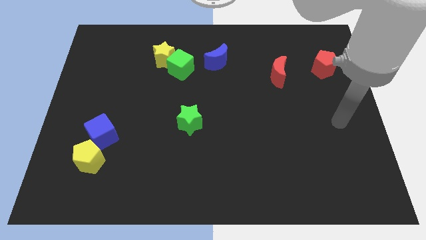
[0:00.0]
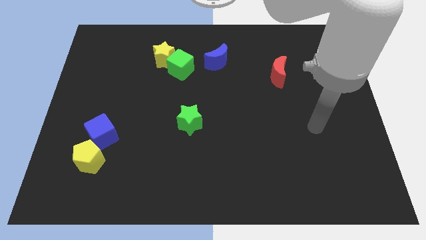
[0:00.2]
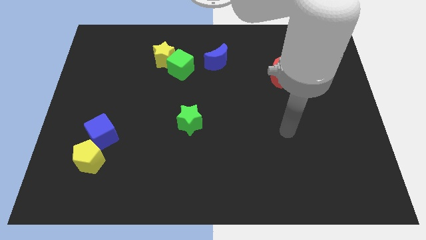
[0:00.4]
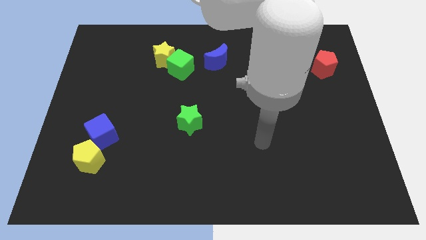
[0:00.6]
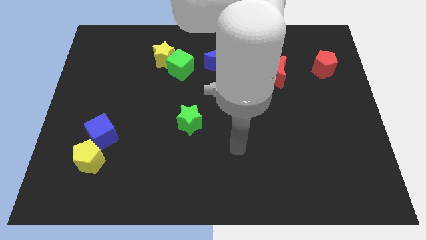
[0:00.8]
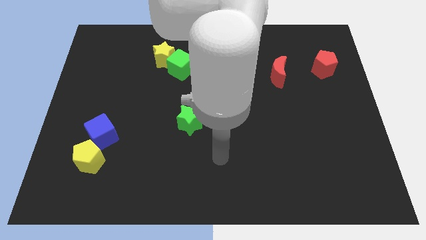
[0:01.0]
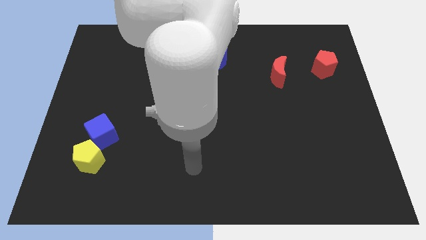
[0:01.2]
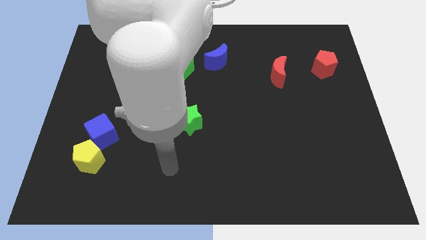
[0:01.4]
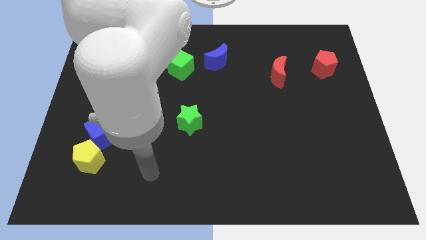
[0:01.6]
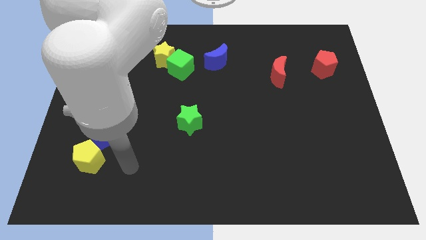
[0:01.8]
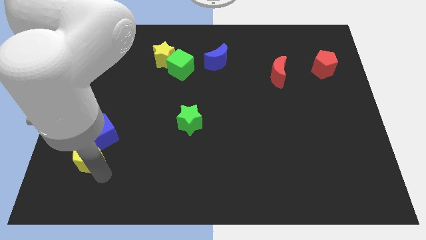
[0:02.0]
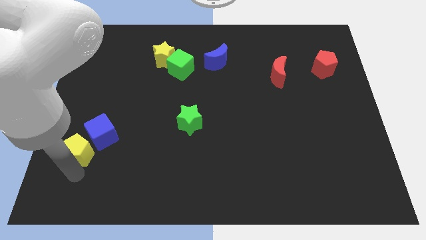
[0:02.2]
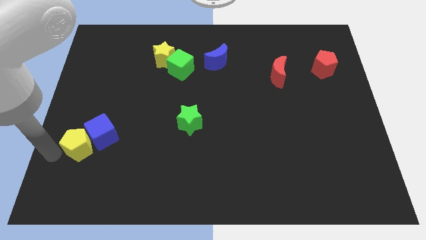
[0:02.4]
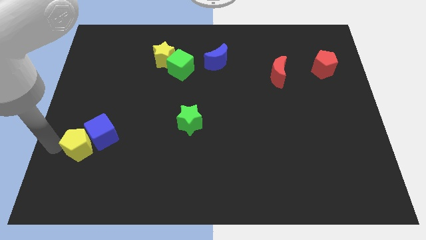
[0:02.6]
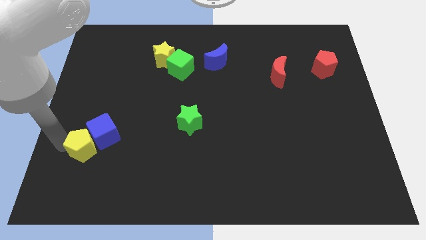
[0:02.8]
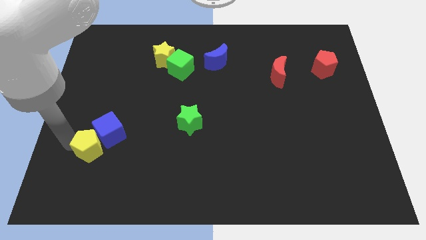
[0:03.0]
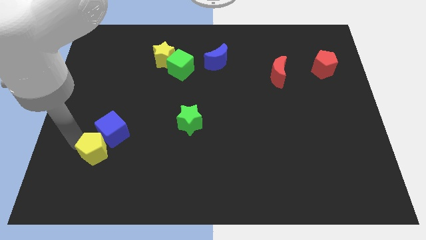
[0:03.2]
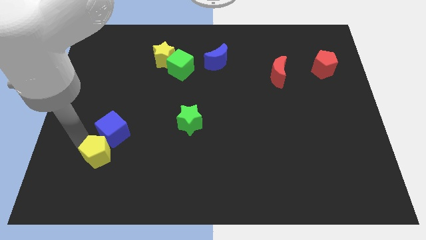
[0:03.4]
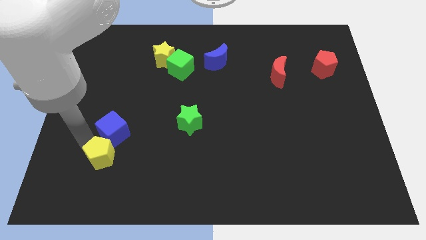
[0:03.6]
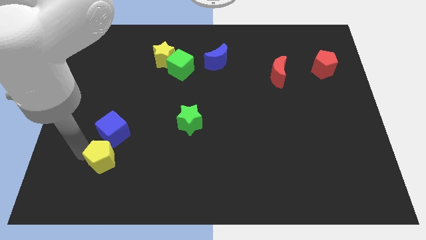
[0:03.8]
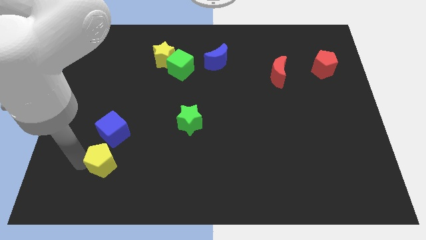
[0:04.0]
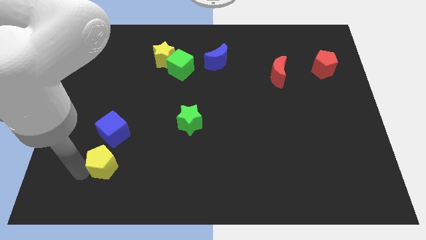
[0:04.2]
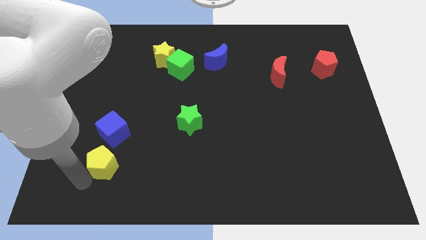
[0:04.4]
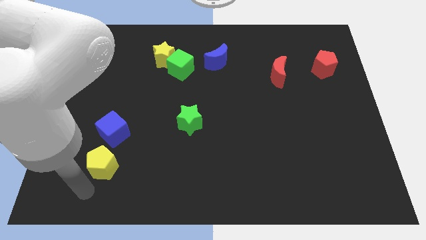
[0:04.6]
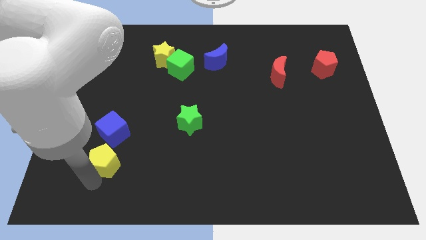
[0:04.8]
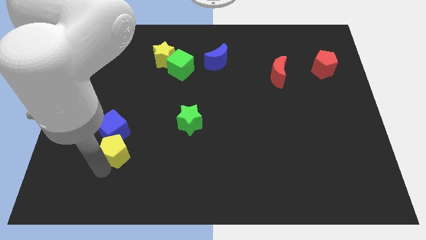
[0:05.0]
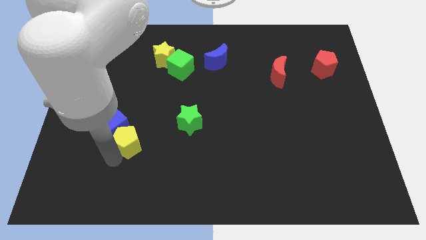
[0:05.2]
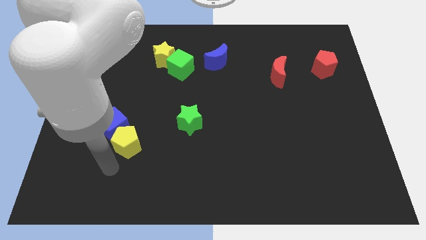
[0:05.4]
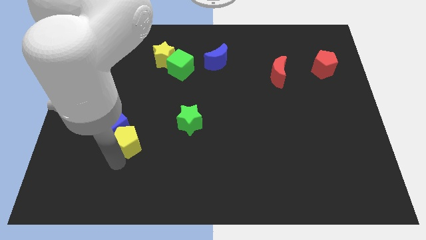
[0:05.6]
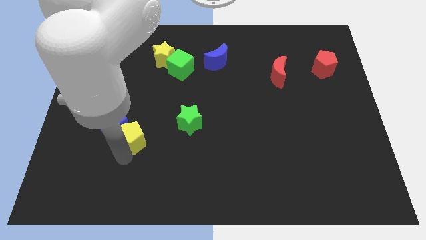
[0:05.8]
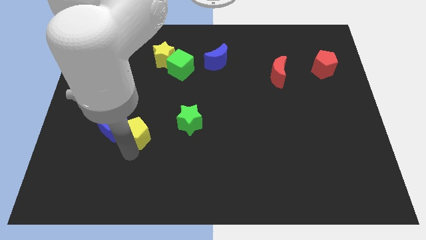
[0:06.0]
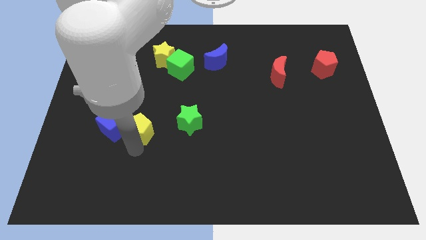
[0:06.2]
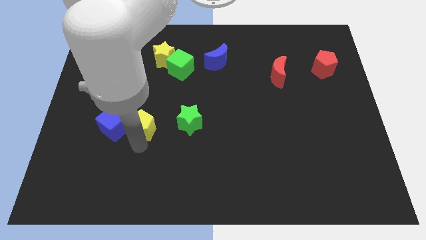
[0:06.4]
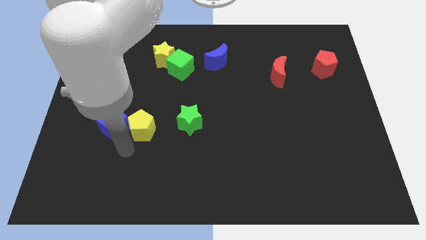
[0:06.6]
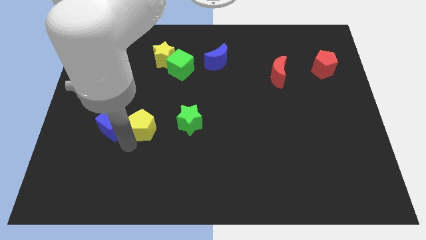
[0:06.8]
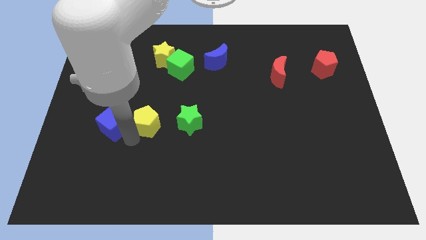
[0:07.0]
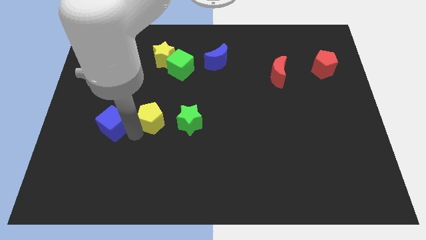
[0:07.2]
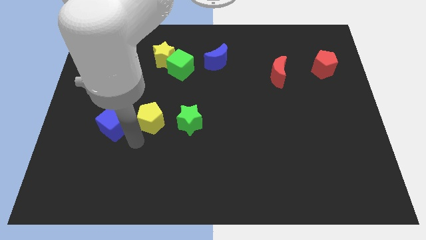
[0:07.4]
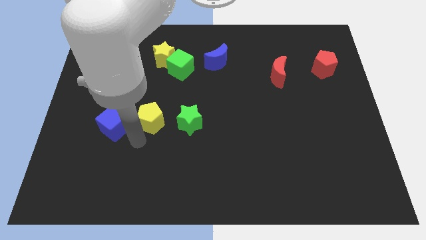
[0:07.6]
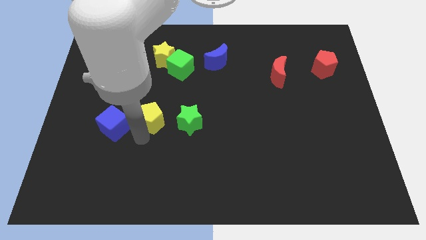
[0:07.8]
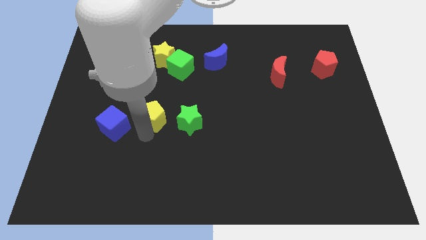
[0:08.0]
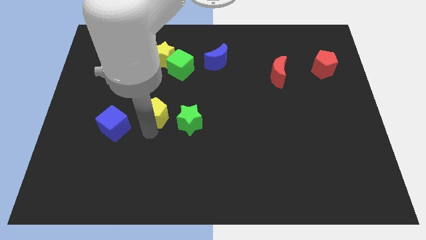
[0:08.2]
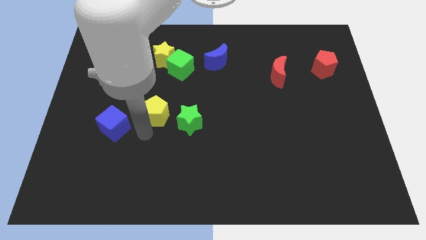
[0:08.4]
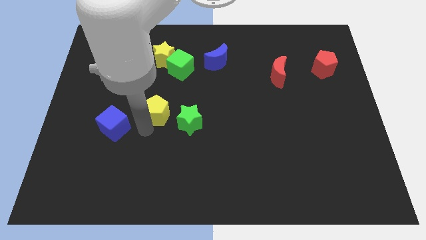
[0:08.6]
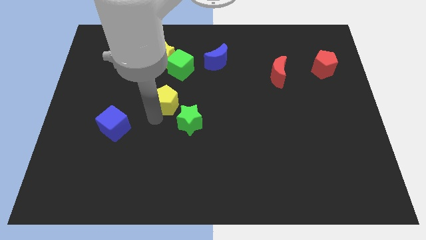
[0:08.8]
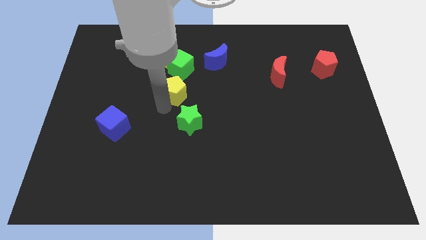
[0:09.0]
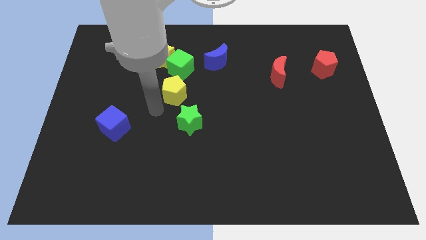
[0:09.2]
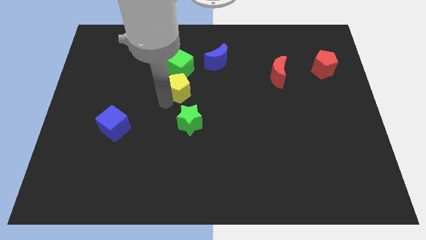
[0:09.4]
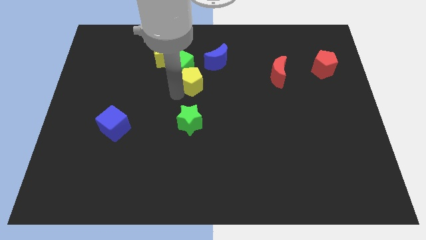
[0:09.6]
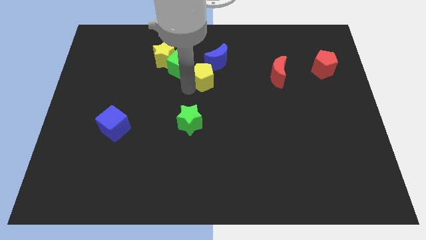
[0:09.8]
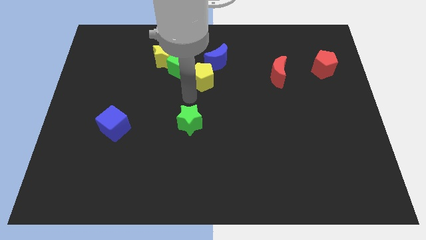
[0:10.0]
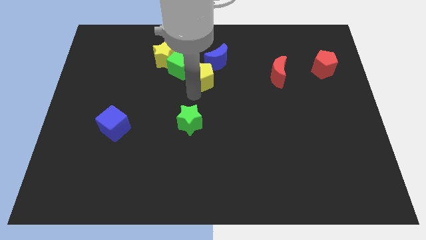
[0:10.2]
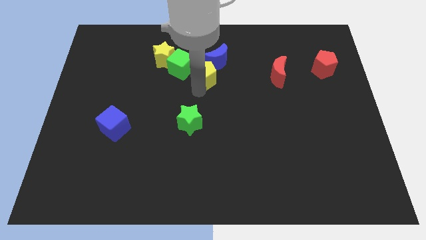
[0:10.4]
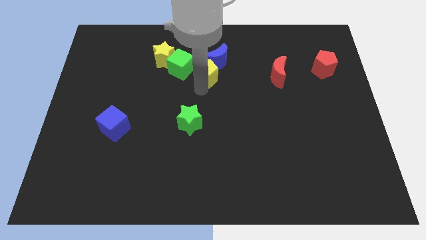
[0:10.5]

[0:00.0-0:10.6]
push the yellow pentagon next to the blue moon

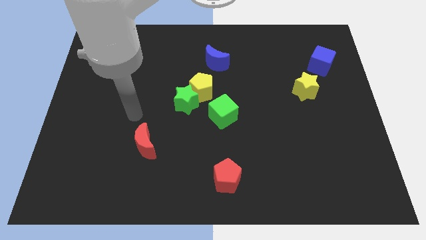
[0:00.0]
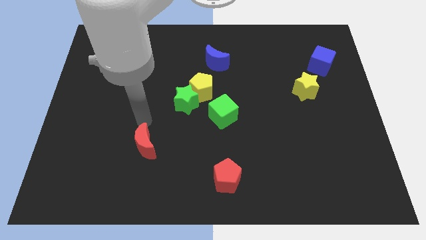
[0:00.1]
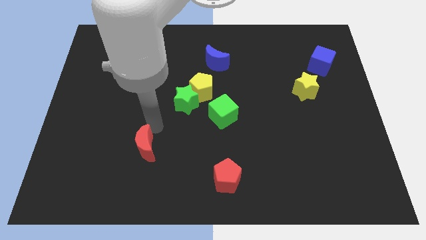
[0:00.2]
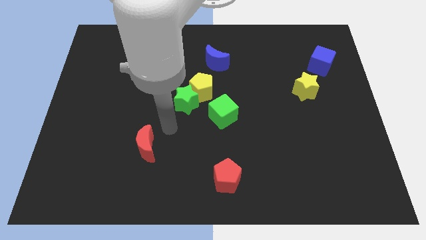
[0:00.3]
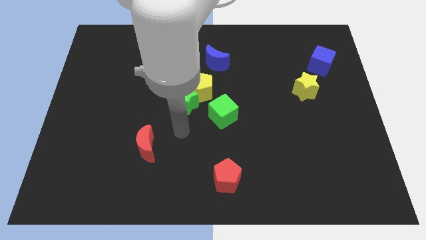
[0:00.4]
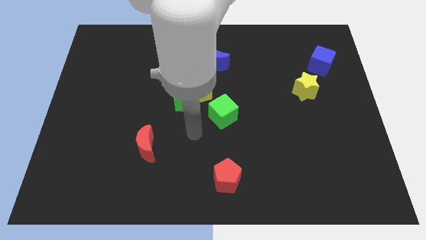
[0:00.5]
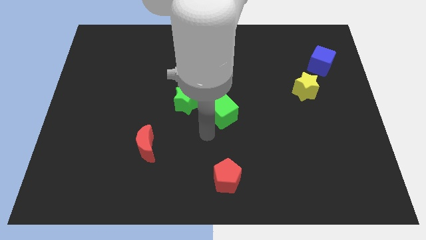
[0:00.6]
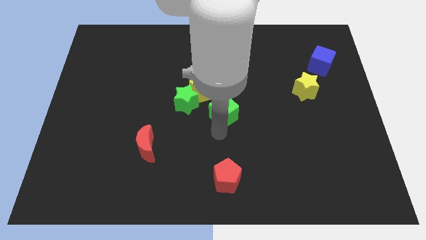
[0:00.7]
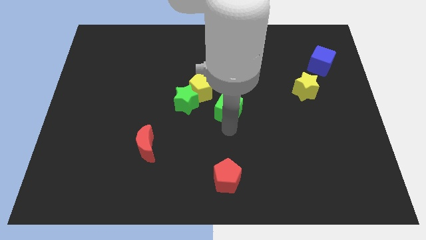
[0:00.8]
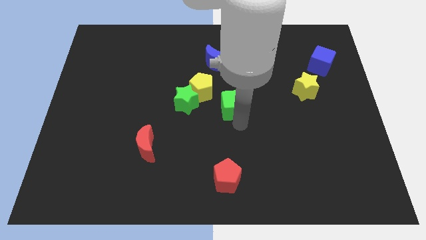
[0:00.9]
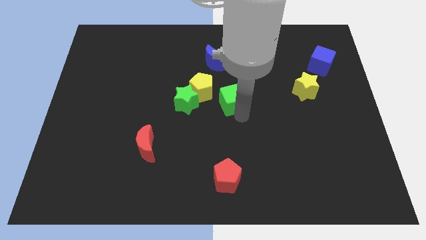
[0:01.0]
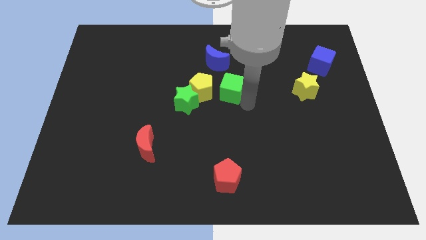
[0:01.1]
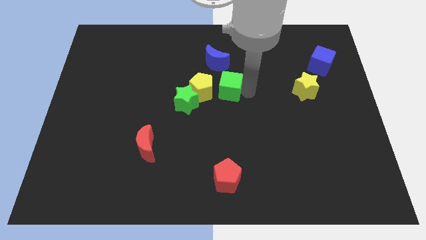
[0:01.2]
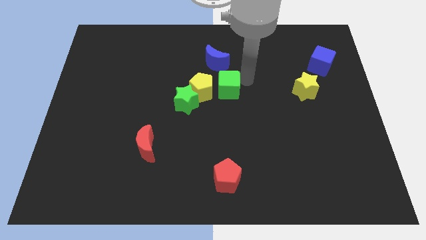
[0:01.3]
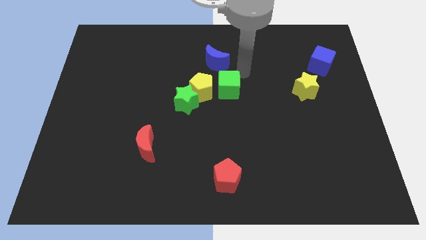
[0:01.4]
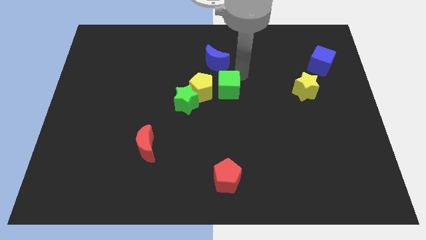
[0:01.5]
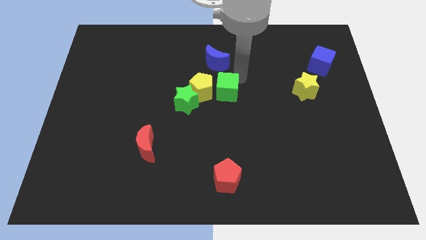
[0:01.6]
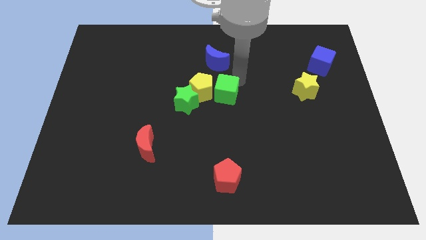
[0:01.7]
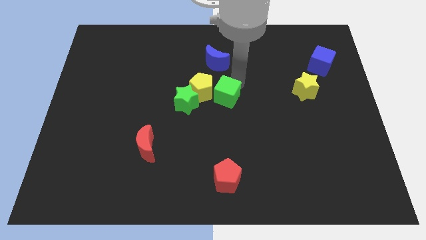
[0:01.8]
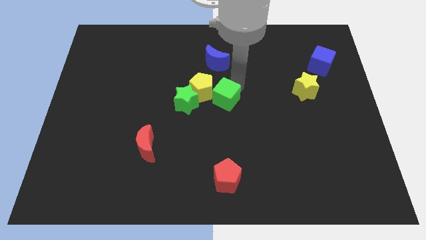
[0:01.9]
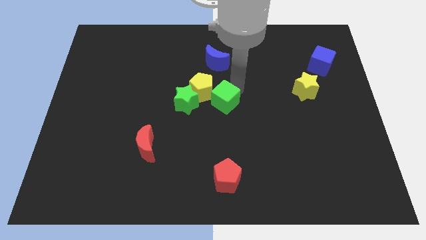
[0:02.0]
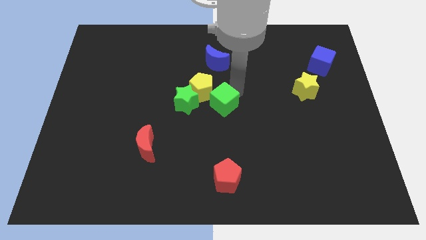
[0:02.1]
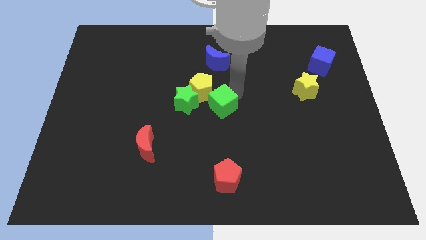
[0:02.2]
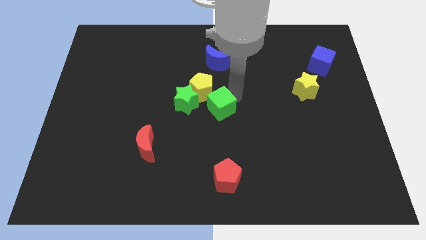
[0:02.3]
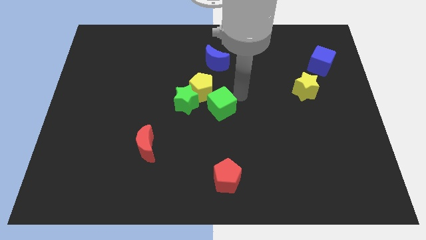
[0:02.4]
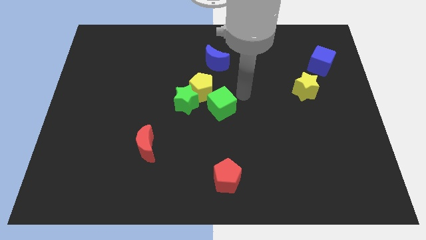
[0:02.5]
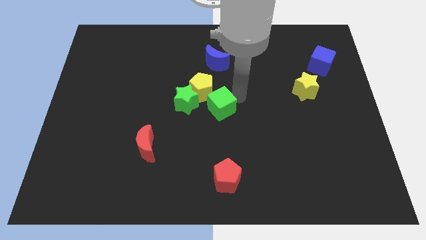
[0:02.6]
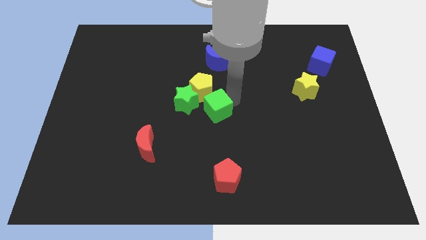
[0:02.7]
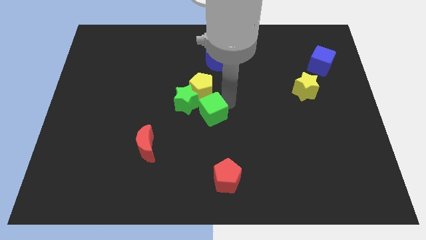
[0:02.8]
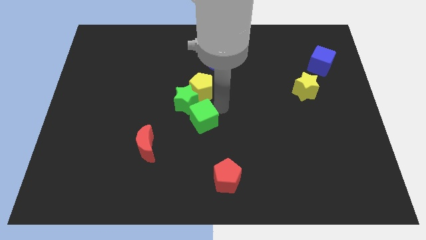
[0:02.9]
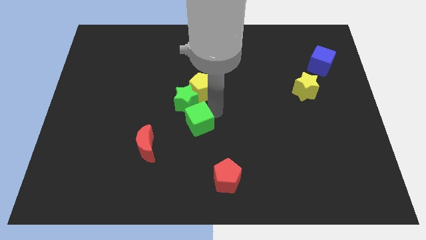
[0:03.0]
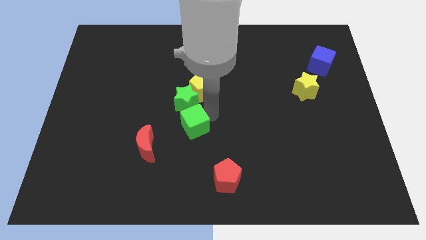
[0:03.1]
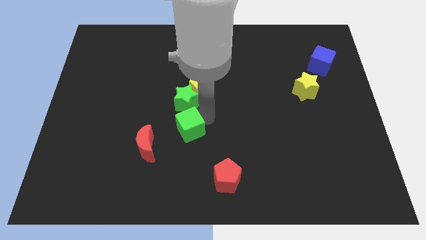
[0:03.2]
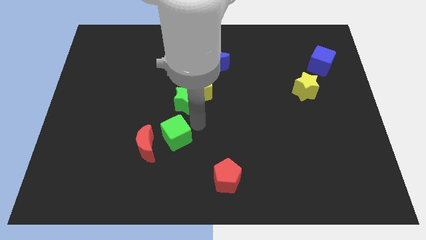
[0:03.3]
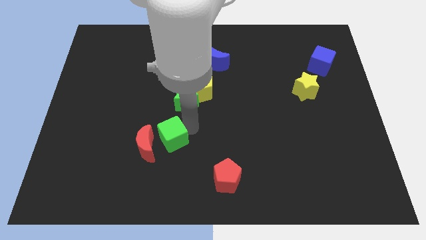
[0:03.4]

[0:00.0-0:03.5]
push the green cube to the red moon
